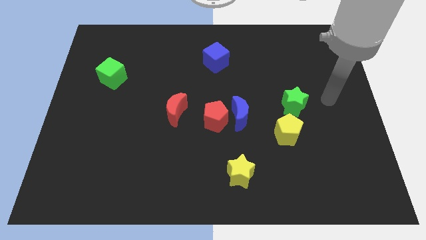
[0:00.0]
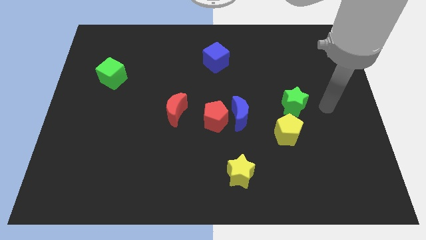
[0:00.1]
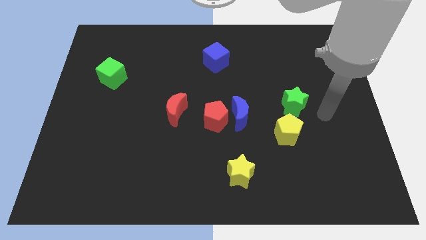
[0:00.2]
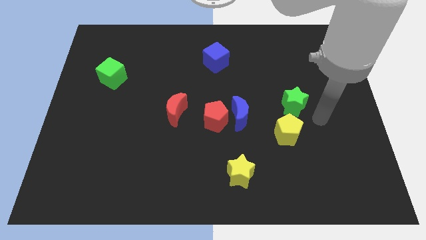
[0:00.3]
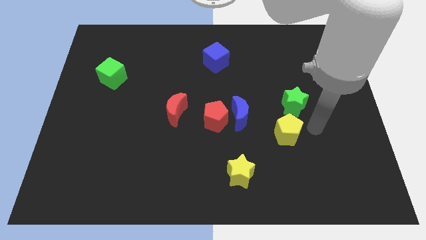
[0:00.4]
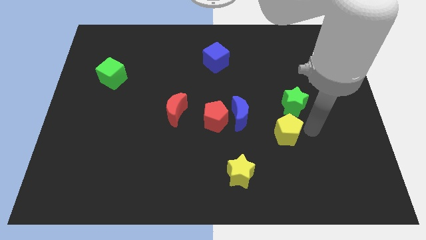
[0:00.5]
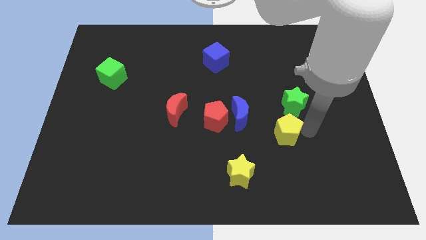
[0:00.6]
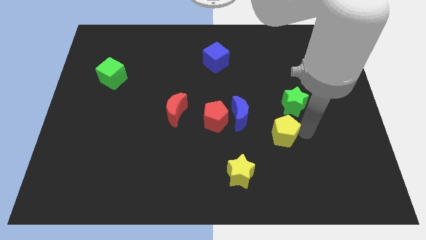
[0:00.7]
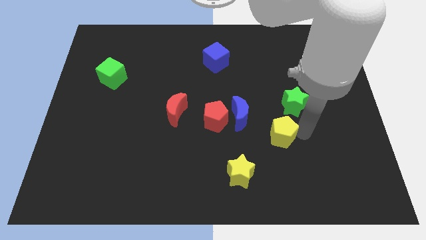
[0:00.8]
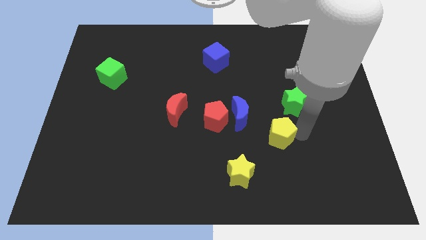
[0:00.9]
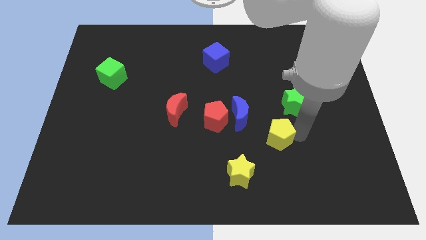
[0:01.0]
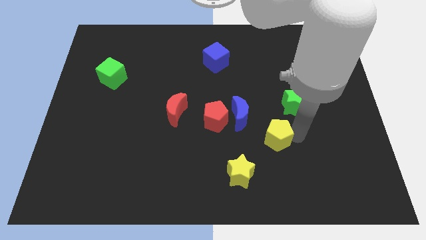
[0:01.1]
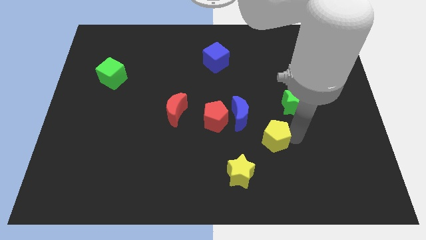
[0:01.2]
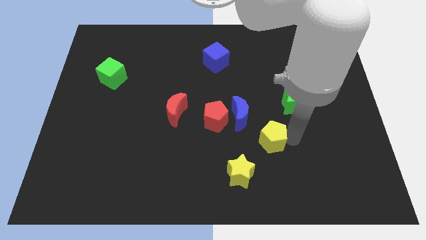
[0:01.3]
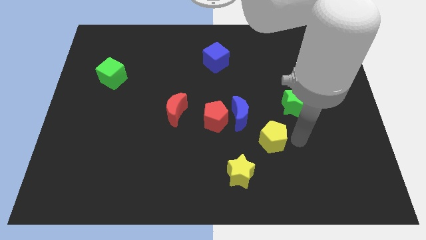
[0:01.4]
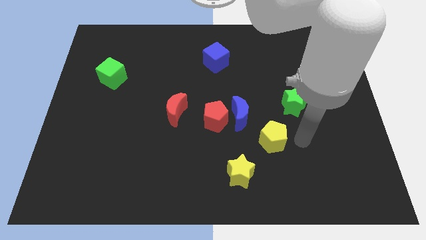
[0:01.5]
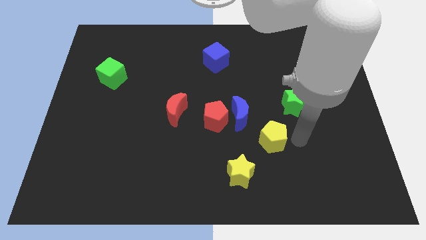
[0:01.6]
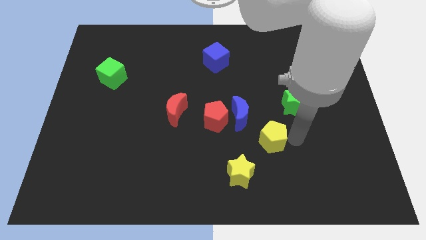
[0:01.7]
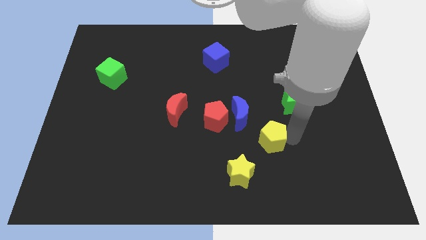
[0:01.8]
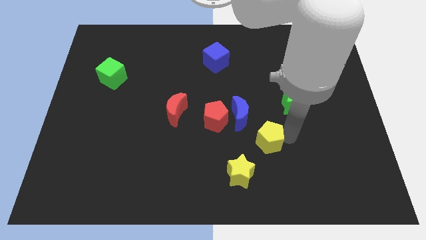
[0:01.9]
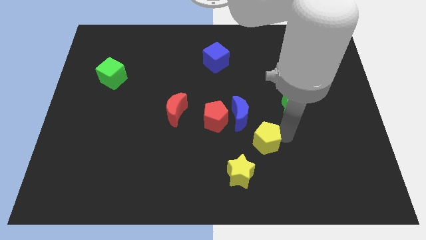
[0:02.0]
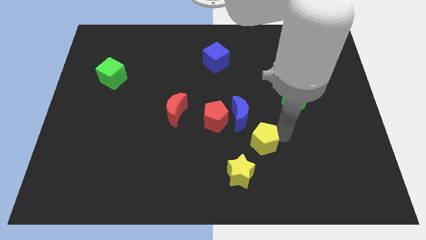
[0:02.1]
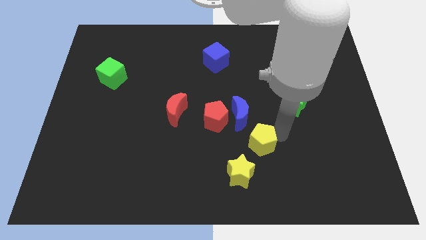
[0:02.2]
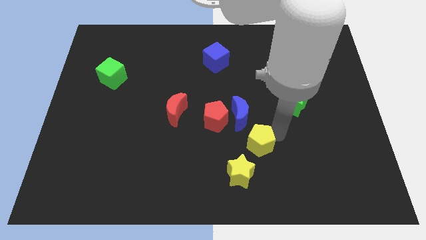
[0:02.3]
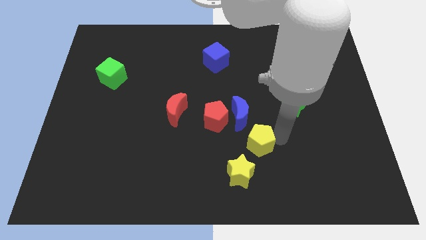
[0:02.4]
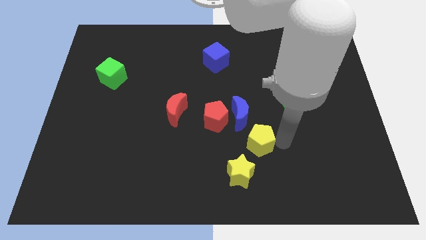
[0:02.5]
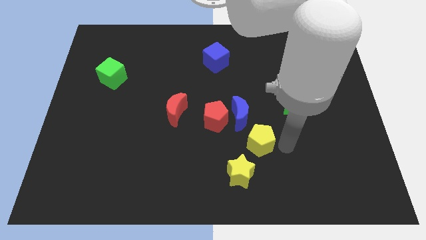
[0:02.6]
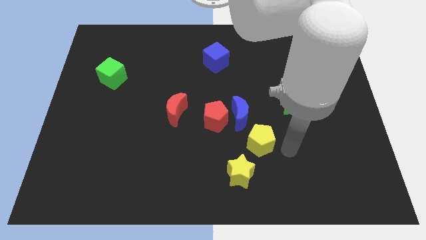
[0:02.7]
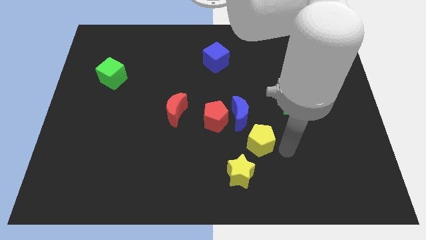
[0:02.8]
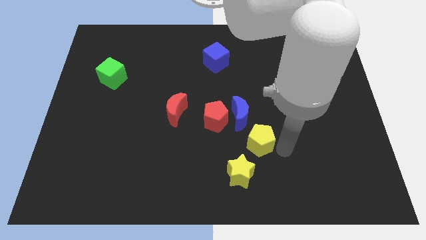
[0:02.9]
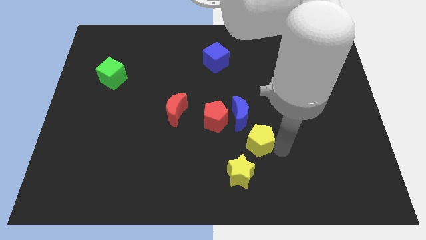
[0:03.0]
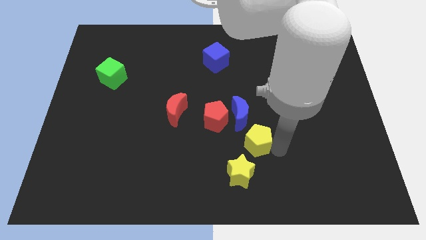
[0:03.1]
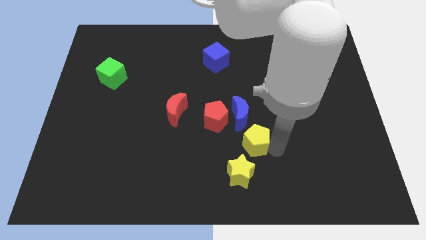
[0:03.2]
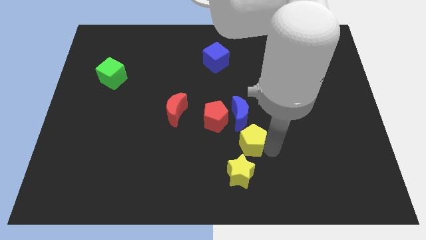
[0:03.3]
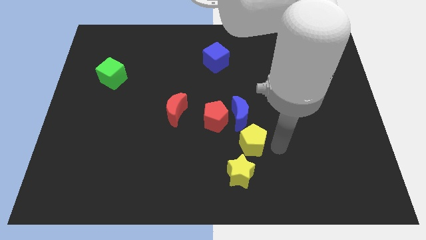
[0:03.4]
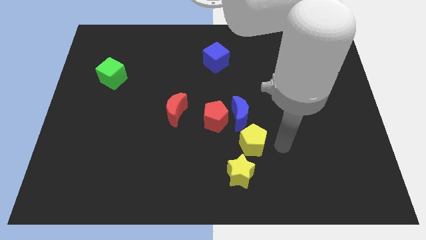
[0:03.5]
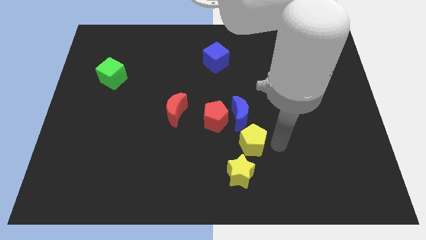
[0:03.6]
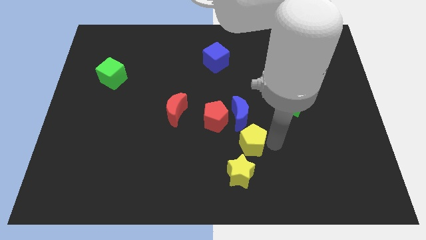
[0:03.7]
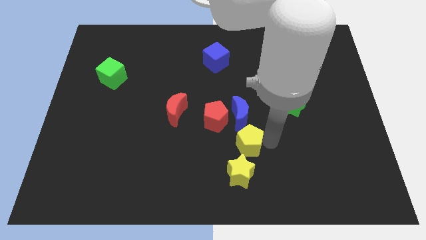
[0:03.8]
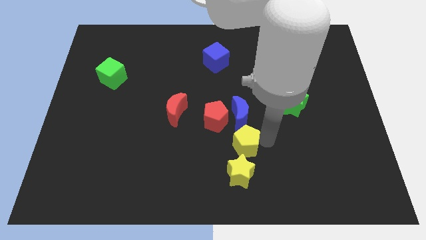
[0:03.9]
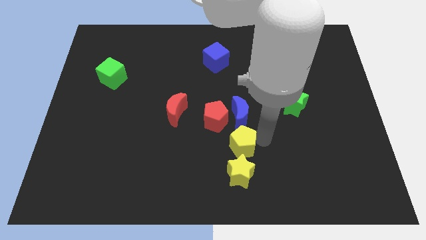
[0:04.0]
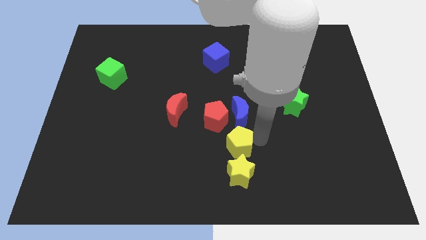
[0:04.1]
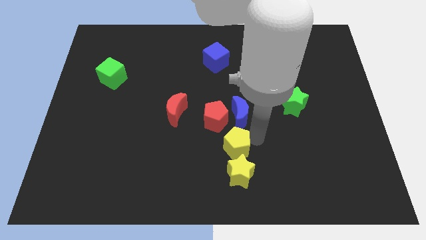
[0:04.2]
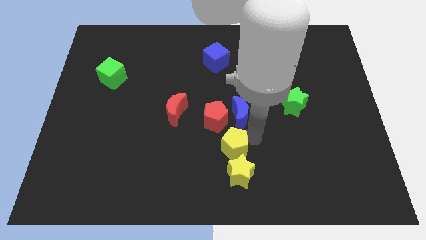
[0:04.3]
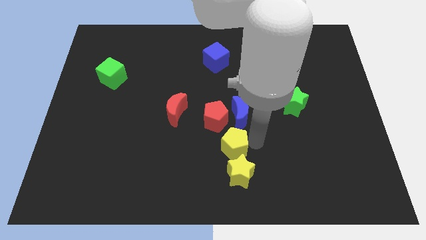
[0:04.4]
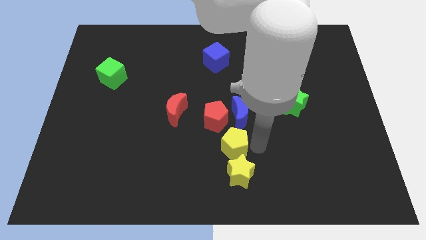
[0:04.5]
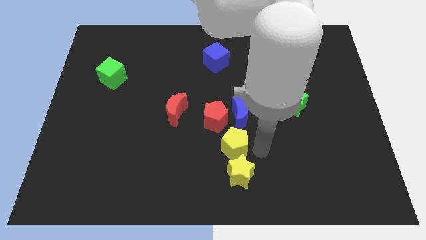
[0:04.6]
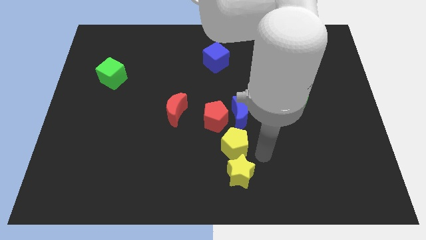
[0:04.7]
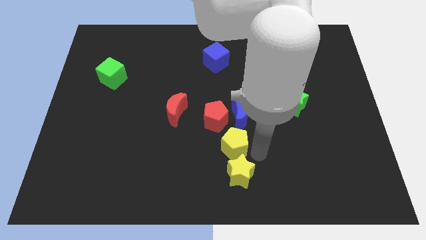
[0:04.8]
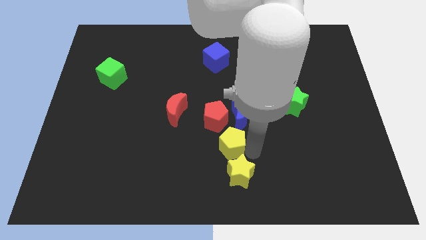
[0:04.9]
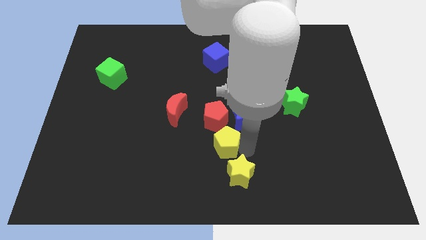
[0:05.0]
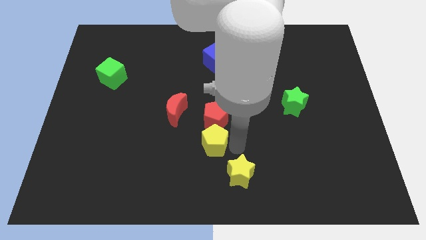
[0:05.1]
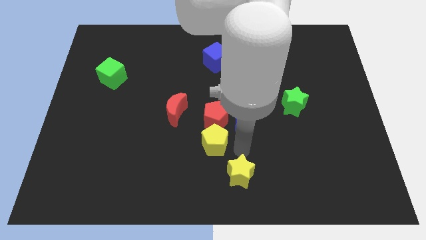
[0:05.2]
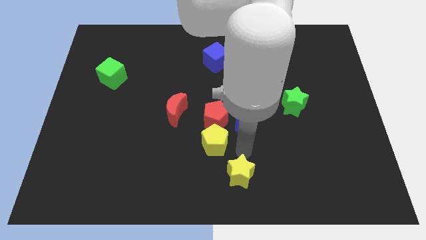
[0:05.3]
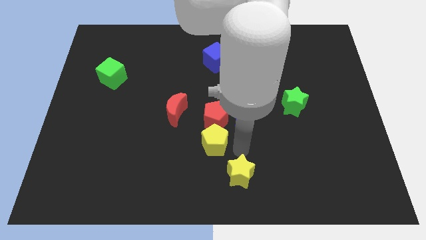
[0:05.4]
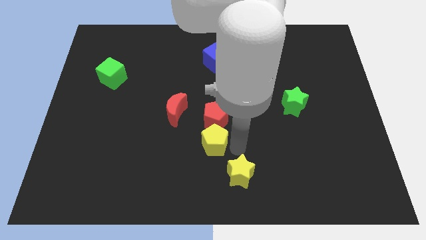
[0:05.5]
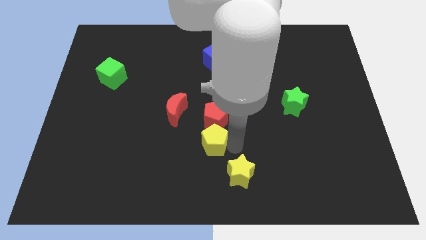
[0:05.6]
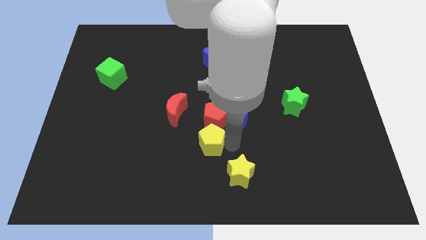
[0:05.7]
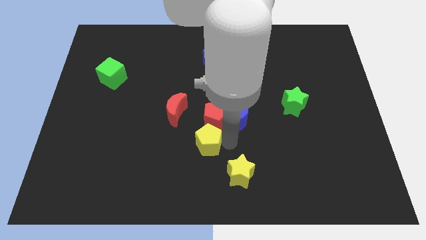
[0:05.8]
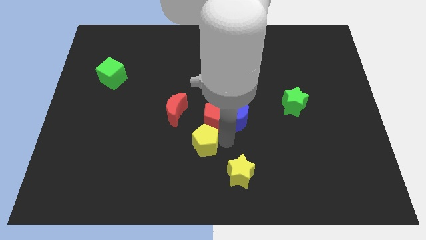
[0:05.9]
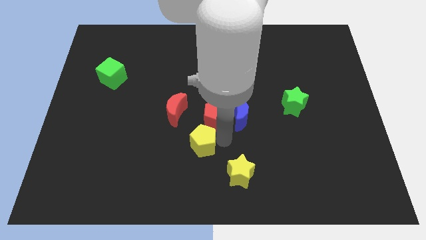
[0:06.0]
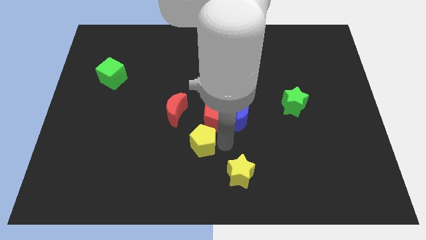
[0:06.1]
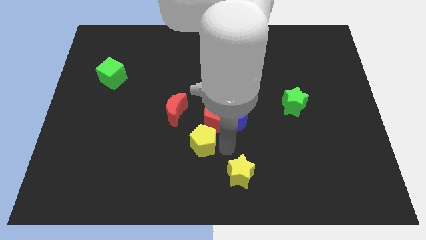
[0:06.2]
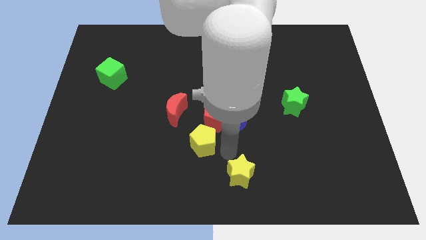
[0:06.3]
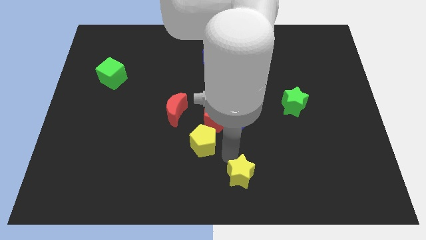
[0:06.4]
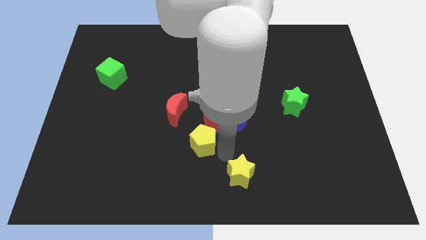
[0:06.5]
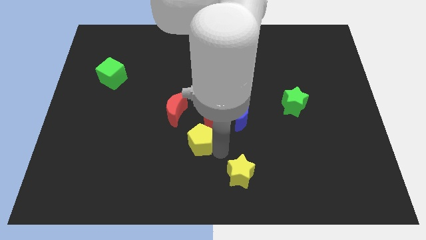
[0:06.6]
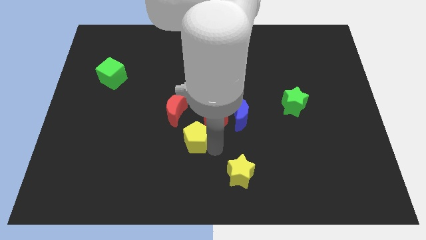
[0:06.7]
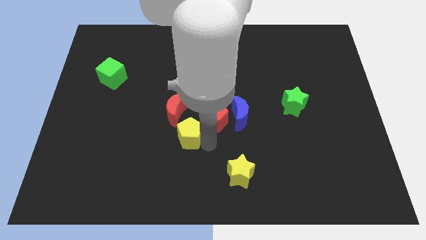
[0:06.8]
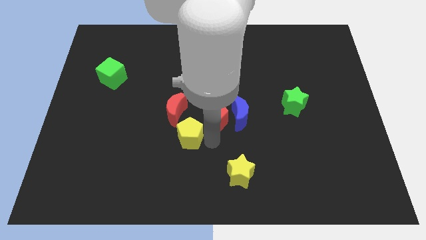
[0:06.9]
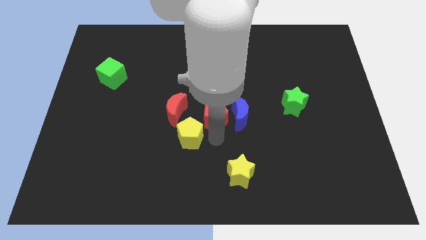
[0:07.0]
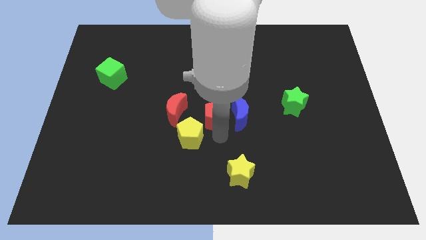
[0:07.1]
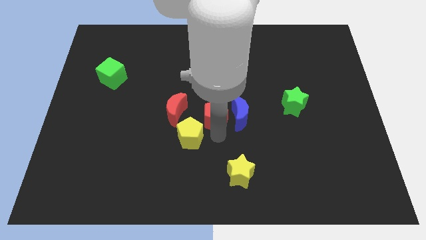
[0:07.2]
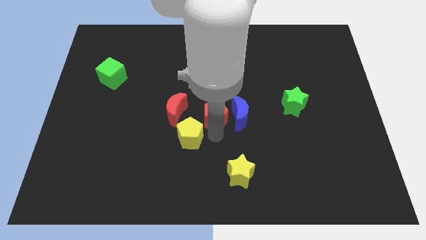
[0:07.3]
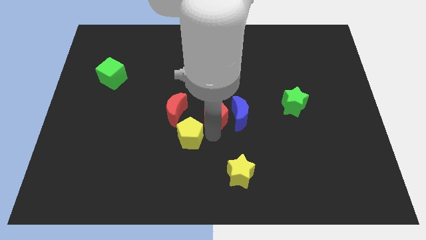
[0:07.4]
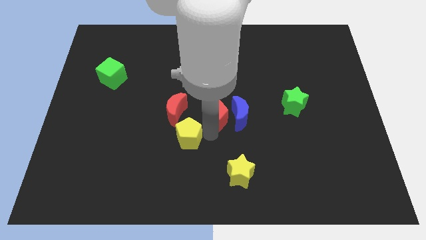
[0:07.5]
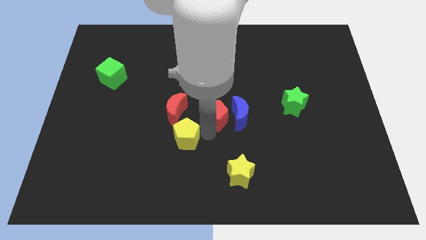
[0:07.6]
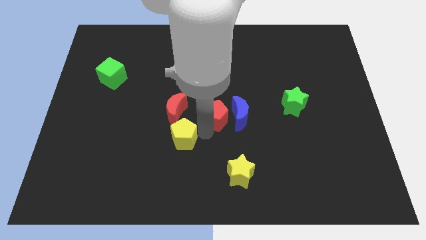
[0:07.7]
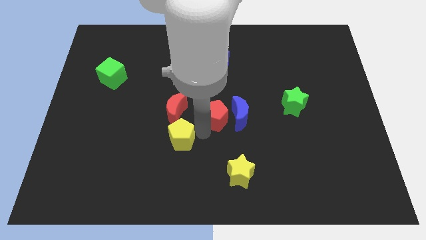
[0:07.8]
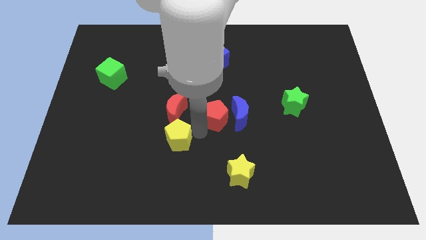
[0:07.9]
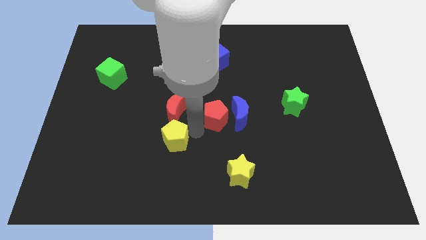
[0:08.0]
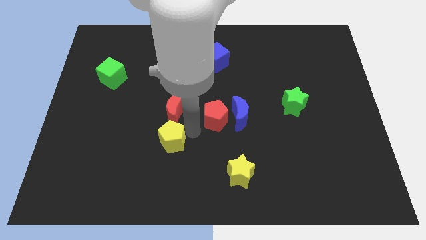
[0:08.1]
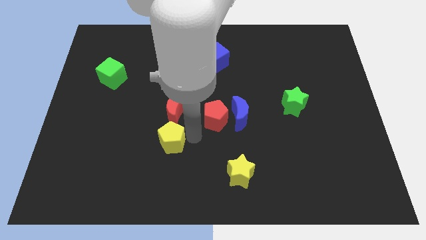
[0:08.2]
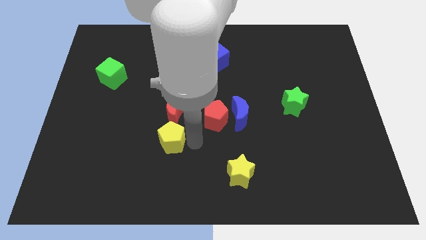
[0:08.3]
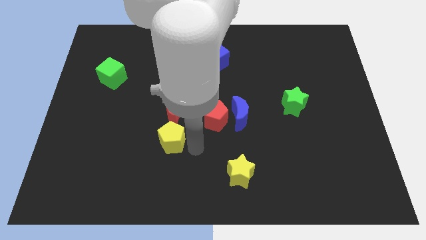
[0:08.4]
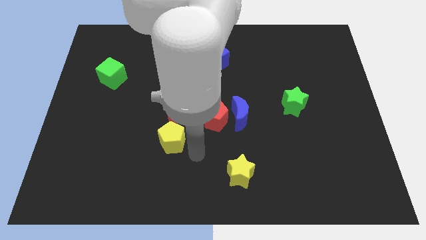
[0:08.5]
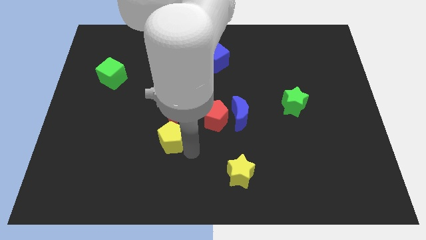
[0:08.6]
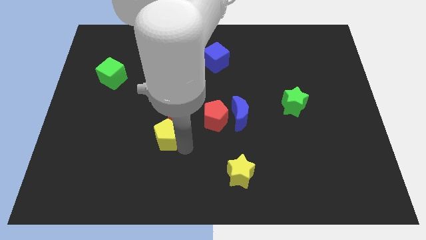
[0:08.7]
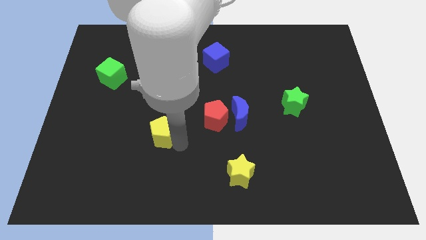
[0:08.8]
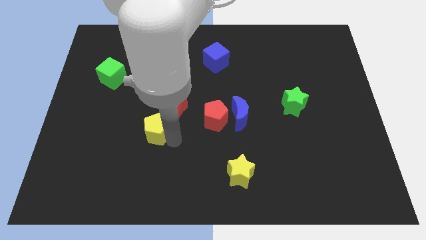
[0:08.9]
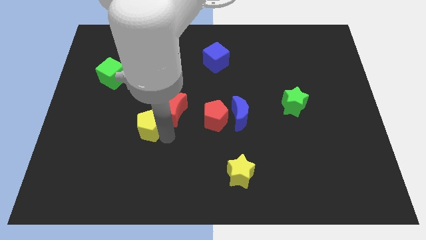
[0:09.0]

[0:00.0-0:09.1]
slide the yellow pentagon to the left side of the red moon
